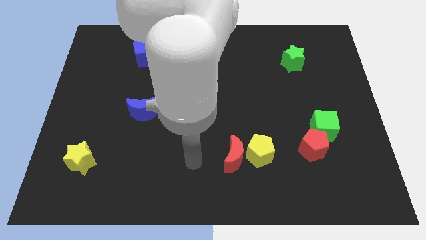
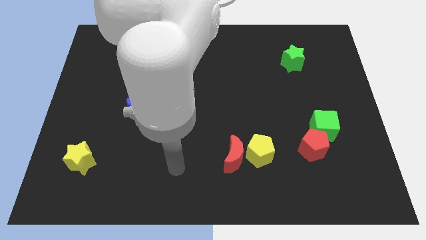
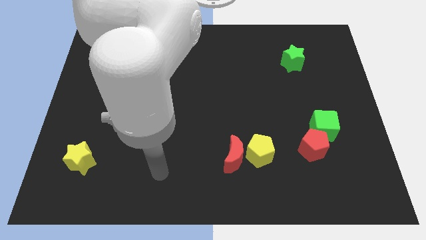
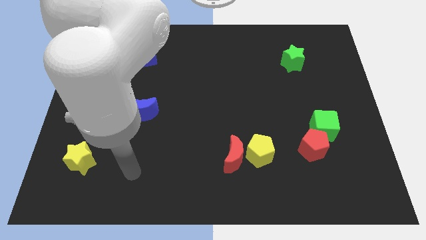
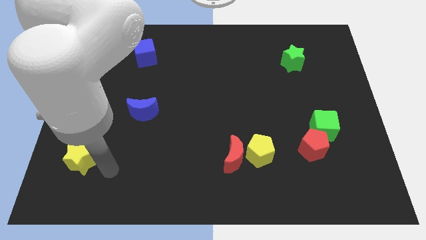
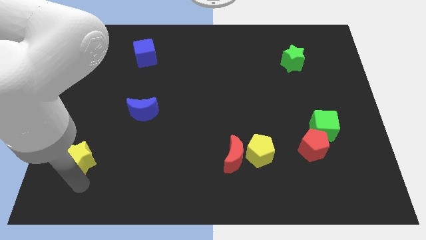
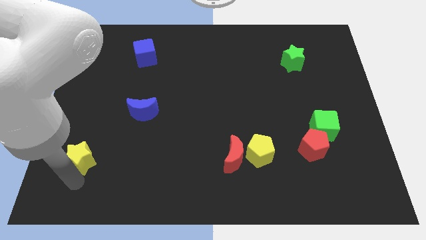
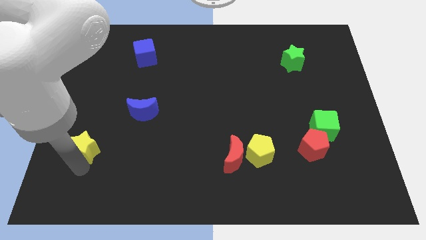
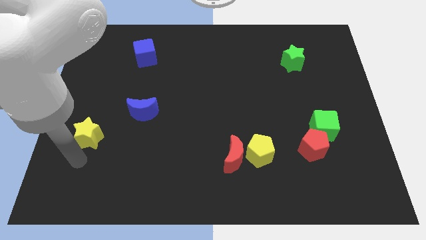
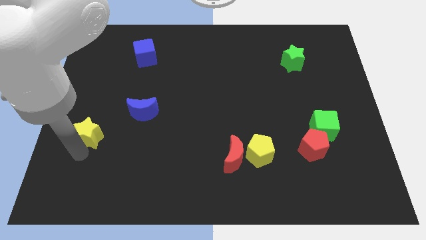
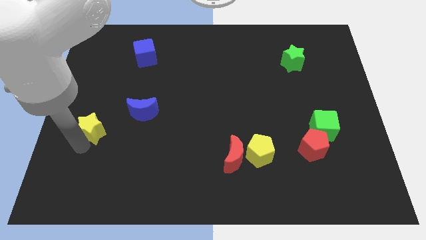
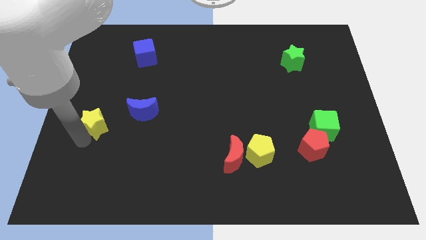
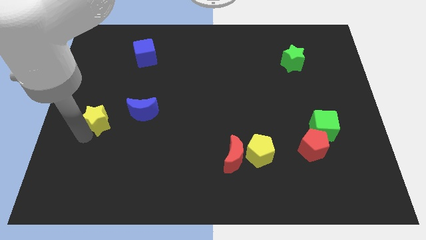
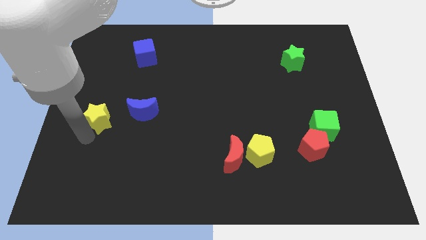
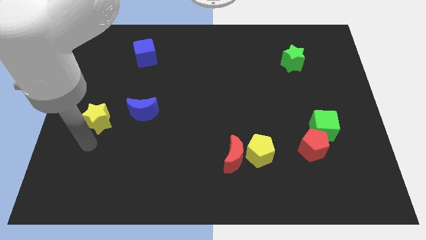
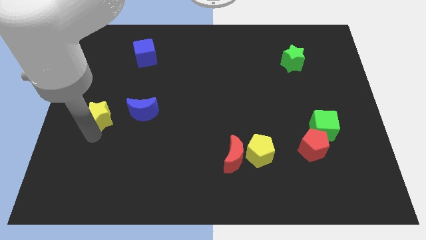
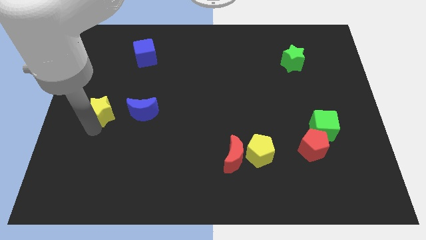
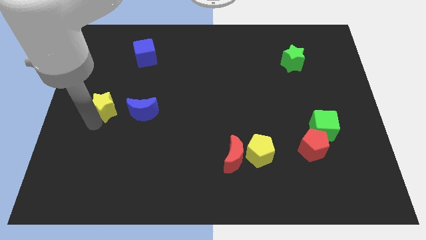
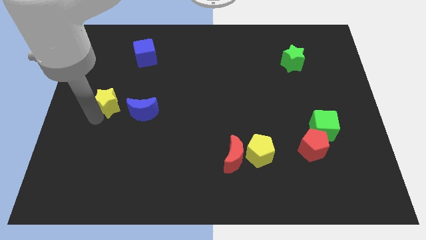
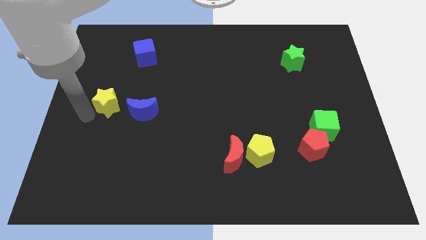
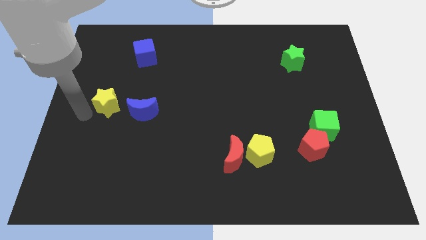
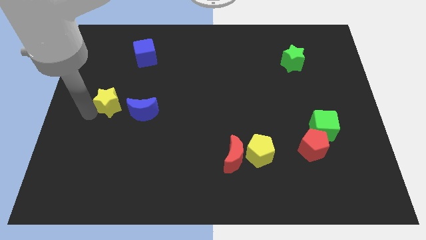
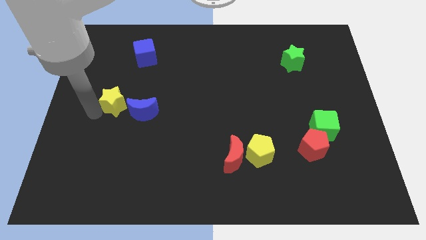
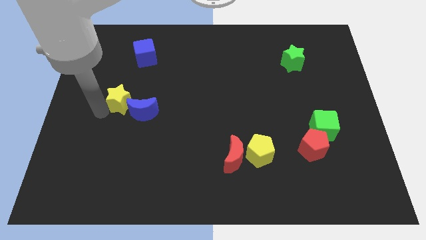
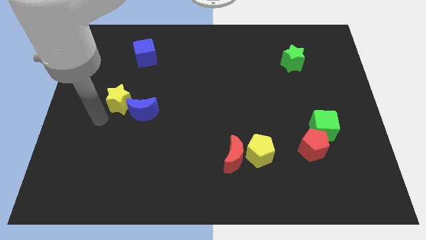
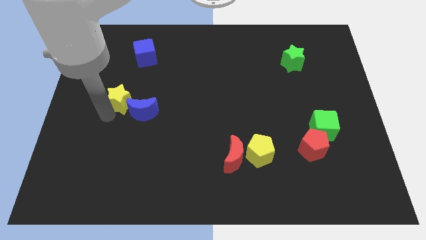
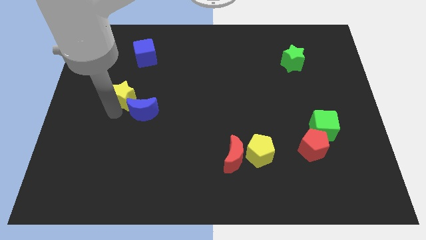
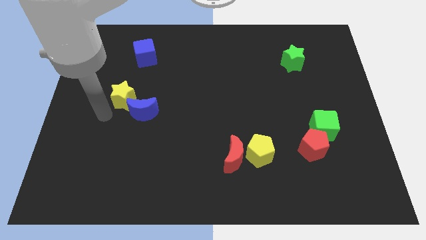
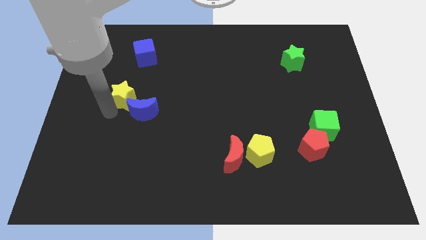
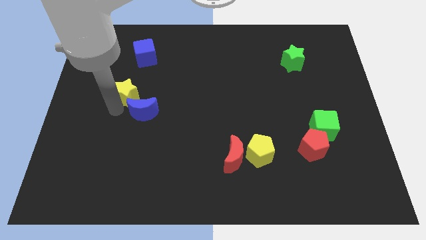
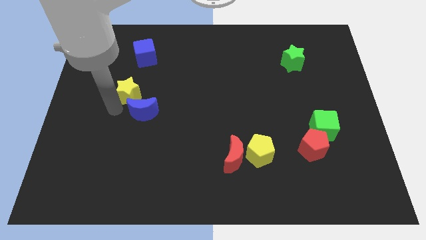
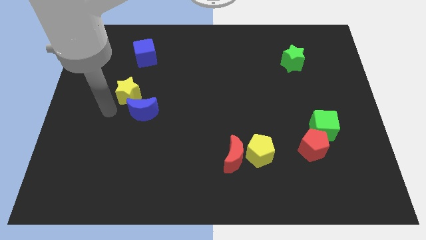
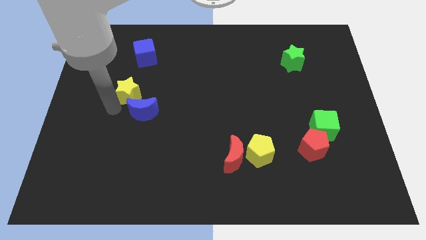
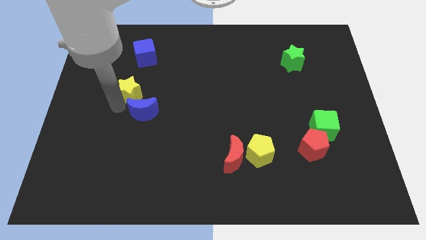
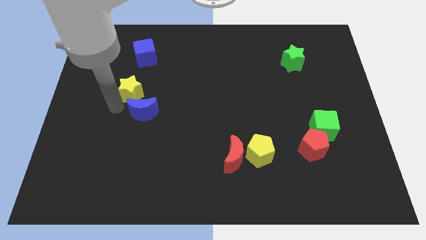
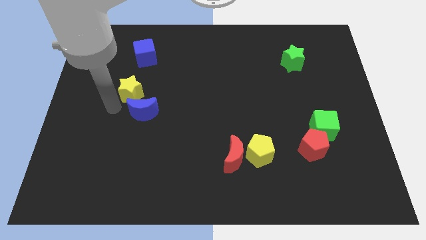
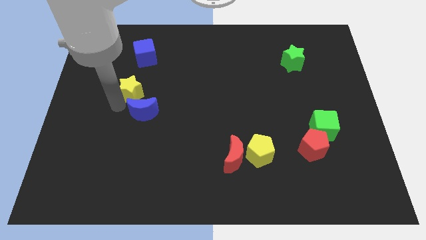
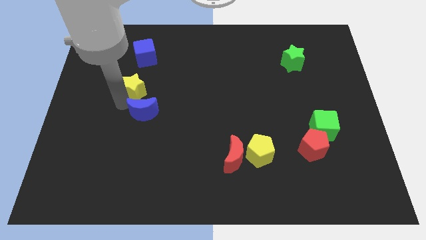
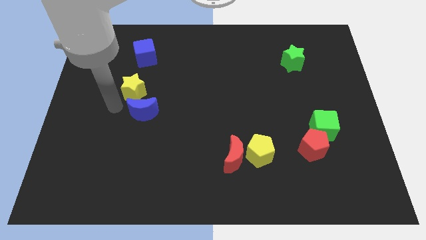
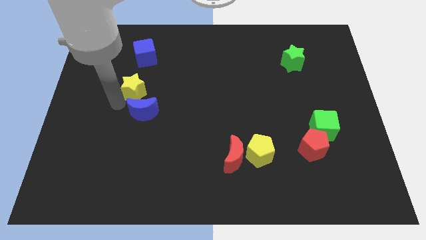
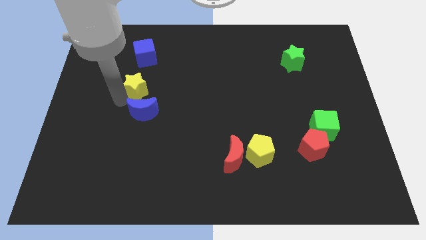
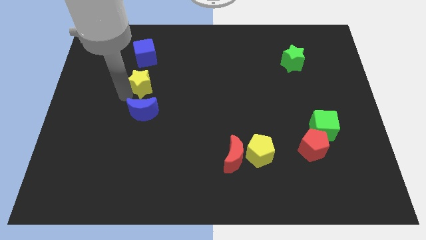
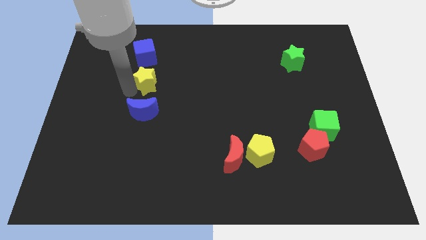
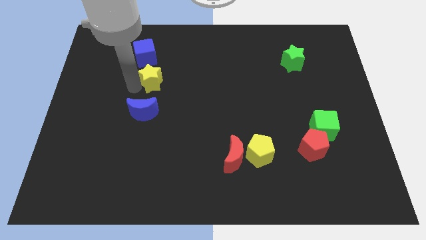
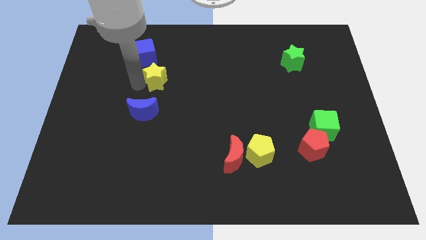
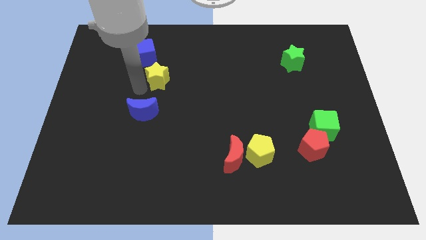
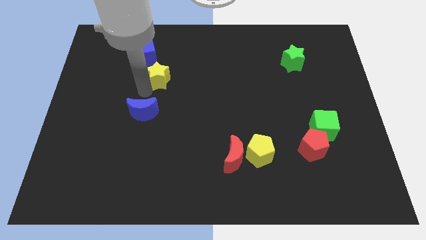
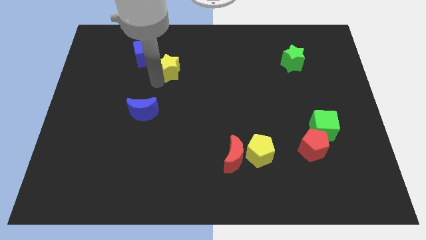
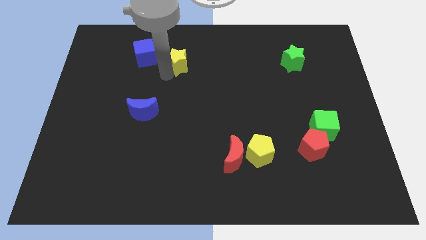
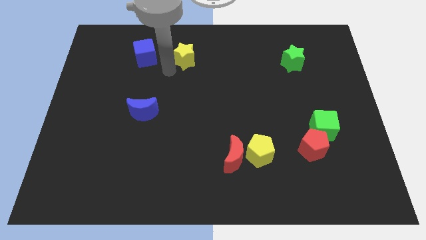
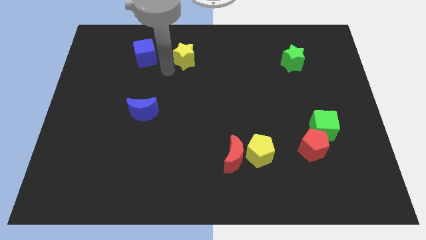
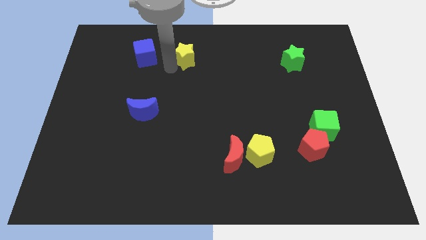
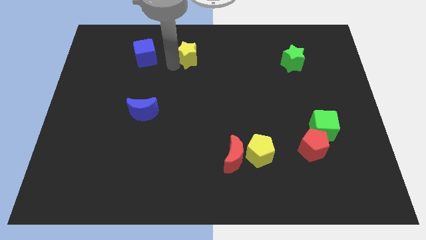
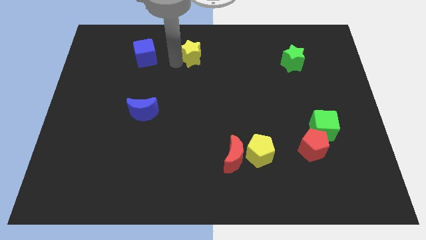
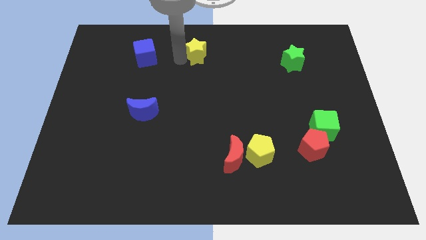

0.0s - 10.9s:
put the yellow star to the top
